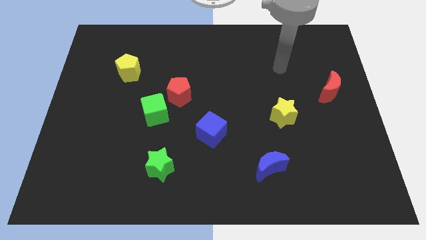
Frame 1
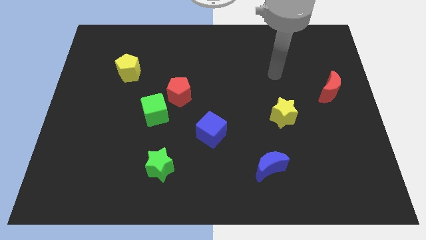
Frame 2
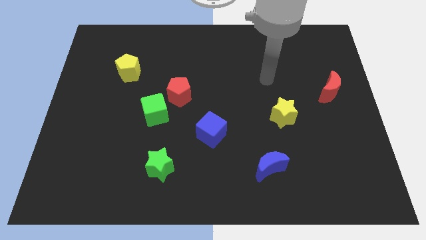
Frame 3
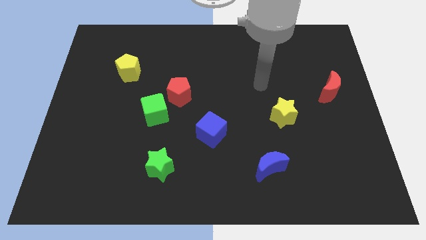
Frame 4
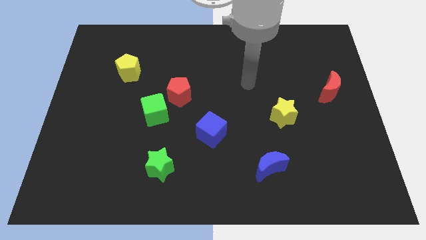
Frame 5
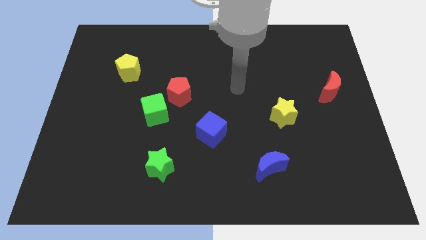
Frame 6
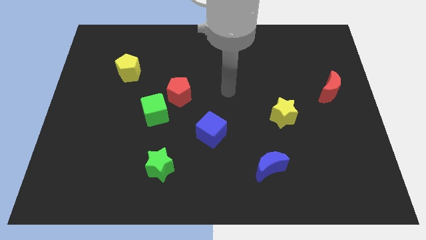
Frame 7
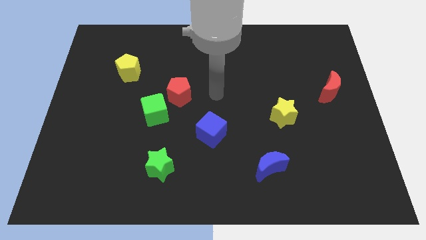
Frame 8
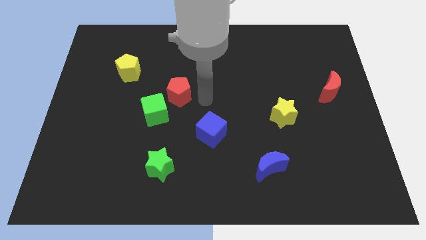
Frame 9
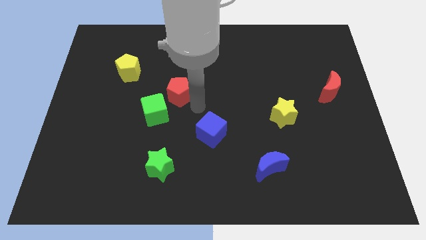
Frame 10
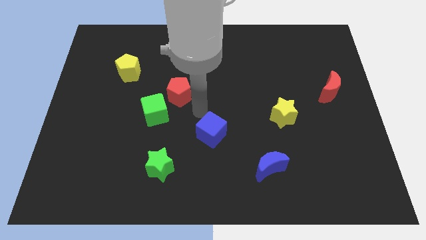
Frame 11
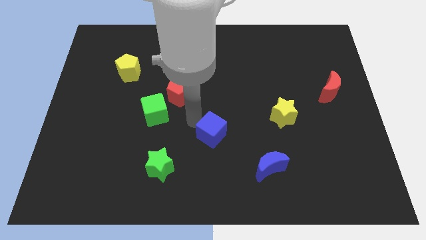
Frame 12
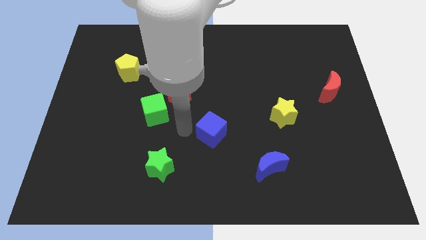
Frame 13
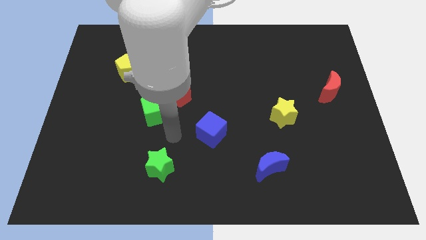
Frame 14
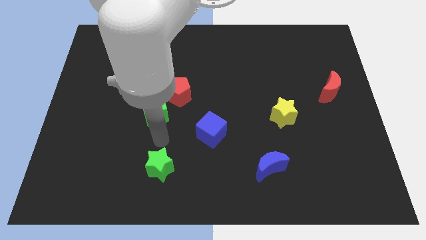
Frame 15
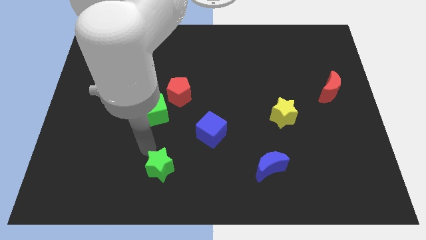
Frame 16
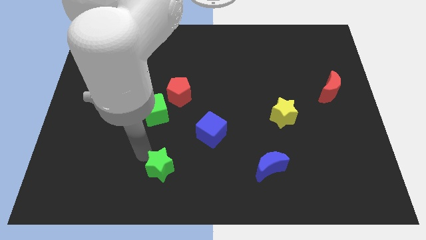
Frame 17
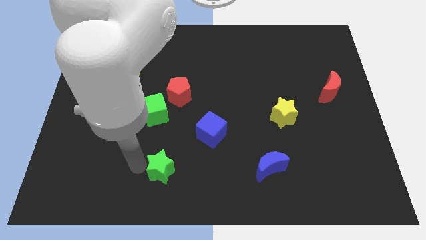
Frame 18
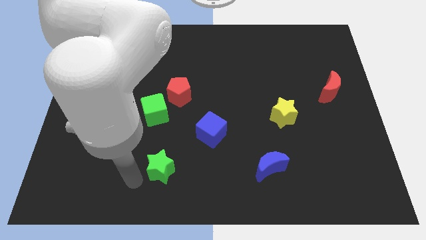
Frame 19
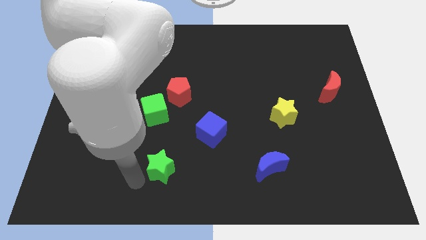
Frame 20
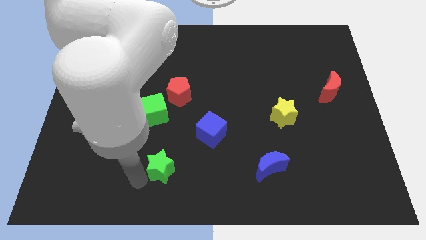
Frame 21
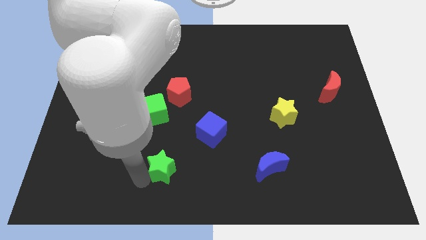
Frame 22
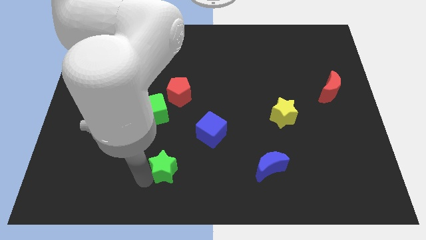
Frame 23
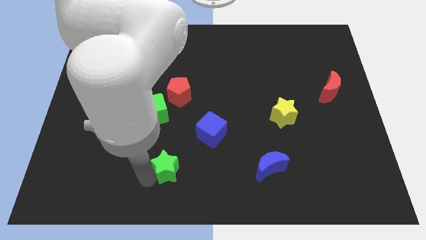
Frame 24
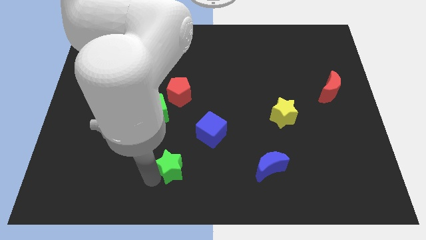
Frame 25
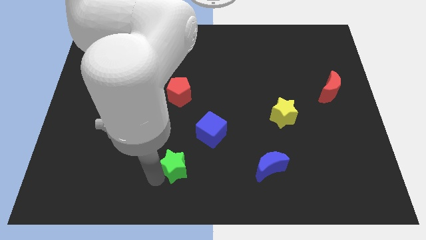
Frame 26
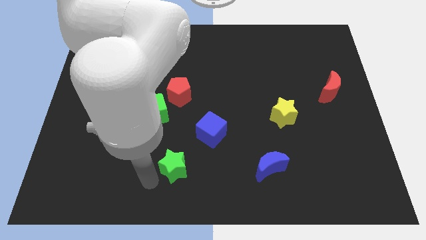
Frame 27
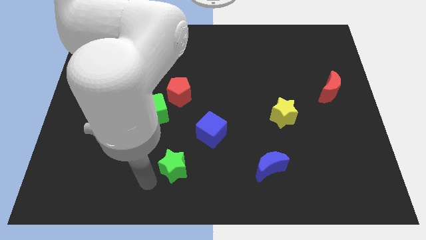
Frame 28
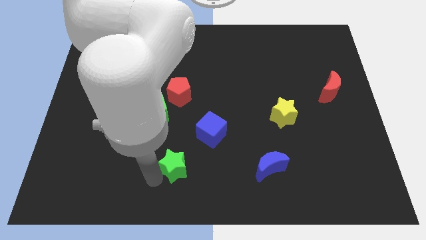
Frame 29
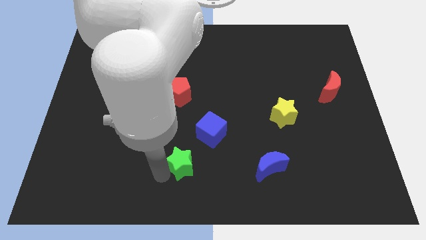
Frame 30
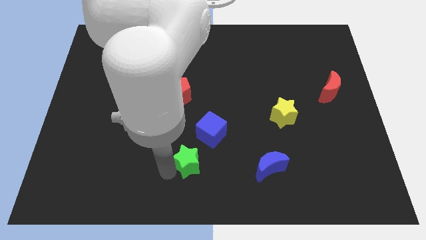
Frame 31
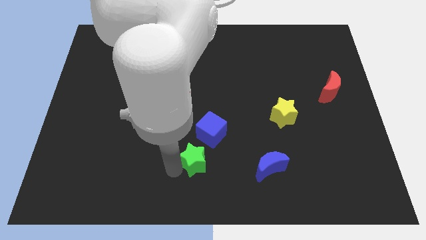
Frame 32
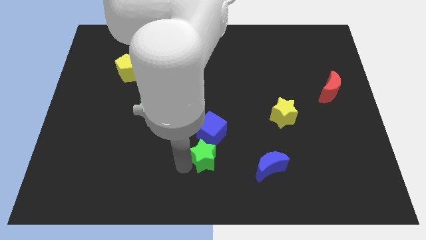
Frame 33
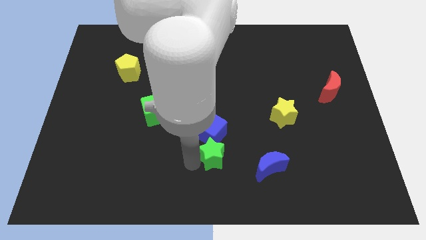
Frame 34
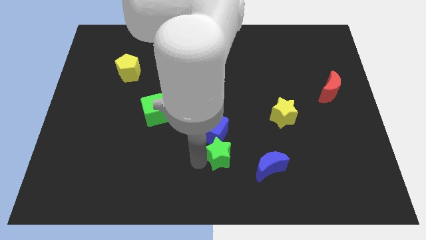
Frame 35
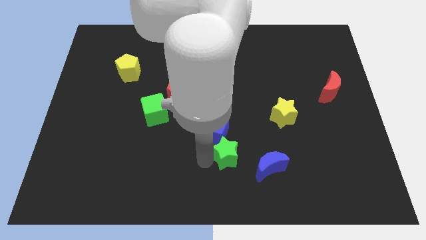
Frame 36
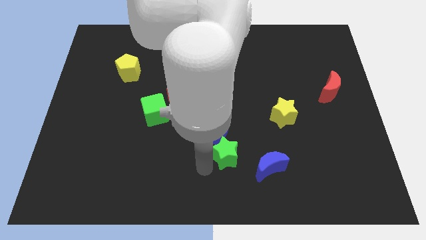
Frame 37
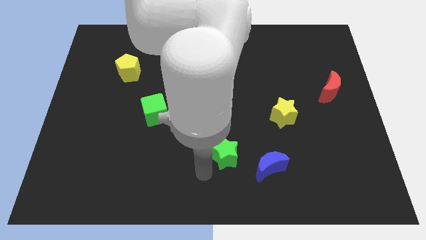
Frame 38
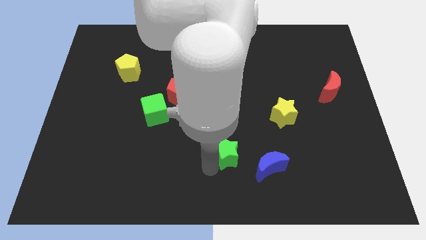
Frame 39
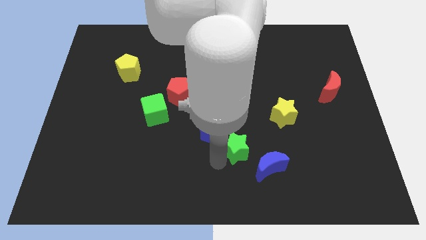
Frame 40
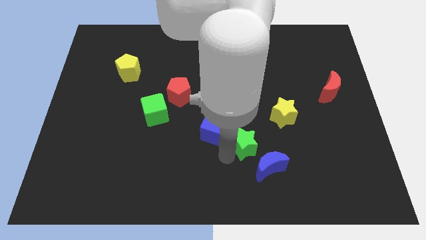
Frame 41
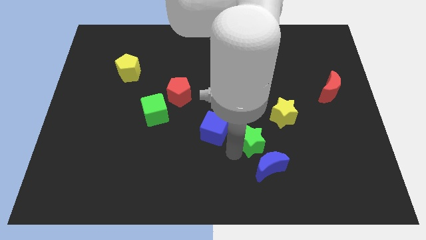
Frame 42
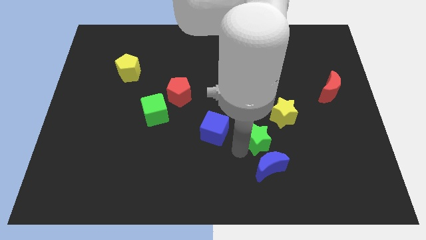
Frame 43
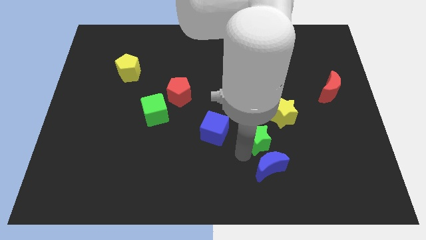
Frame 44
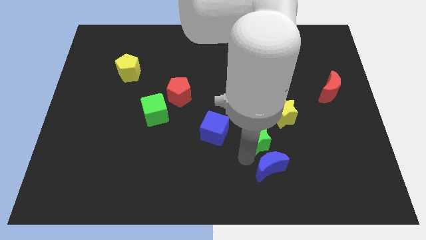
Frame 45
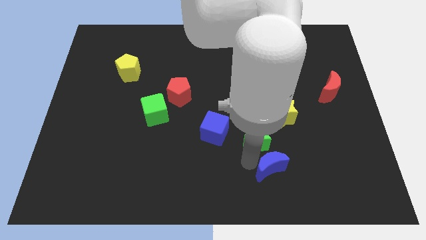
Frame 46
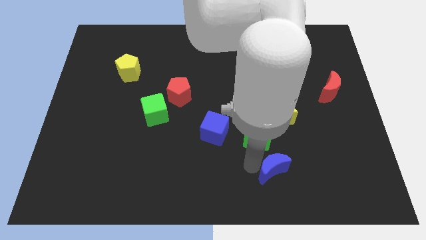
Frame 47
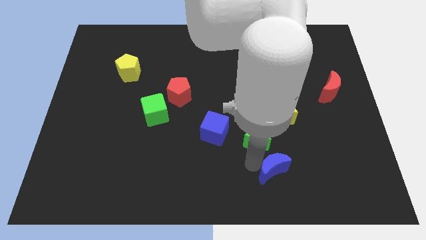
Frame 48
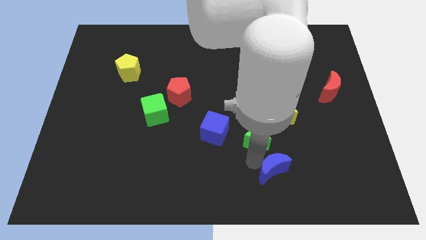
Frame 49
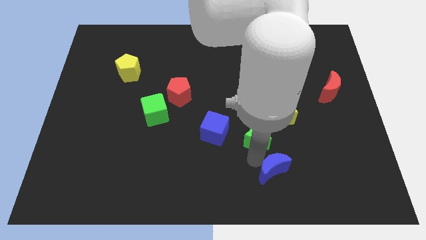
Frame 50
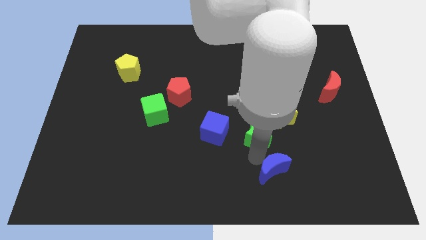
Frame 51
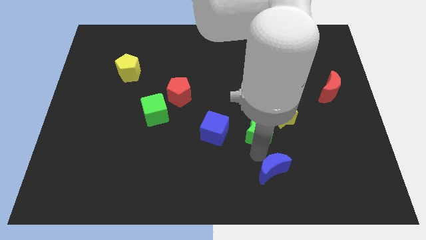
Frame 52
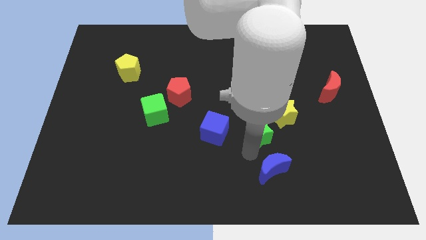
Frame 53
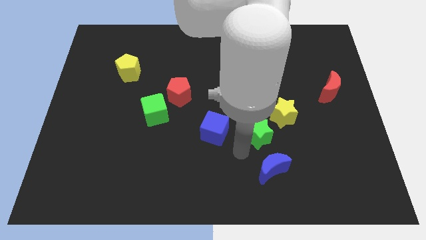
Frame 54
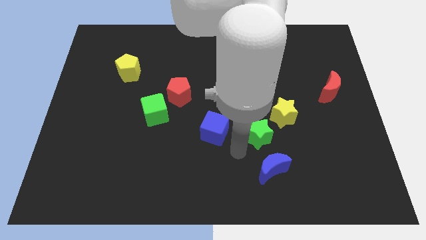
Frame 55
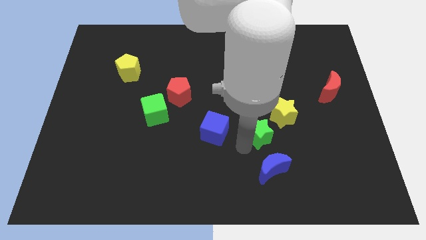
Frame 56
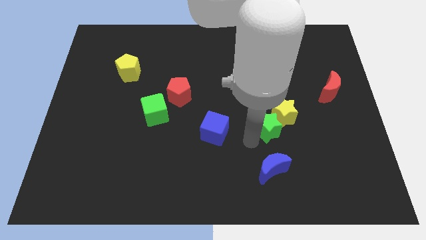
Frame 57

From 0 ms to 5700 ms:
push the green star next to the yellow star

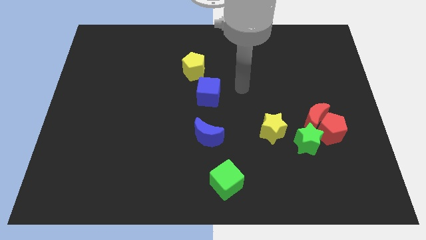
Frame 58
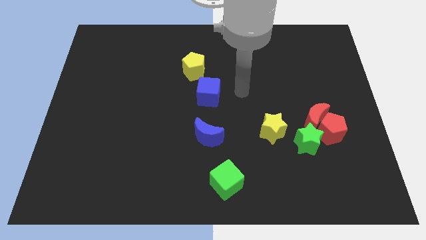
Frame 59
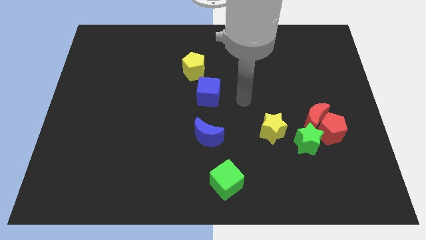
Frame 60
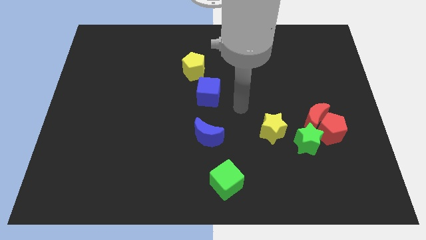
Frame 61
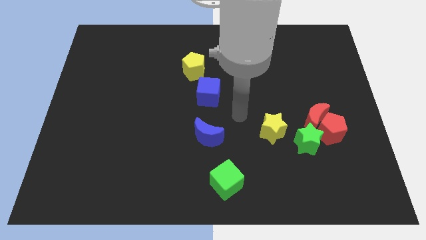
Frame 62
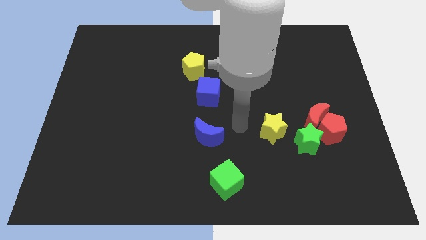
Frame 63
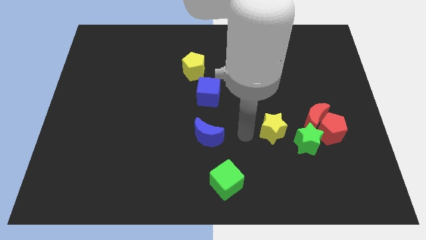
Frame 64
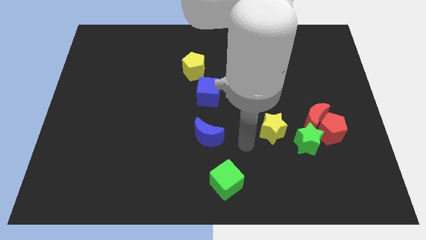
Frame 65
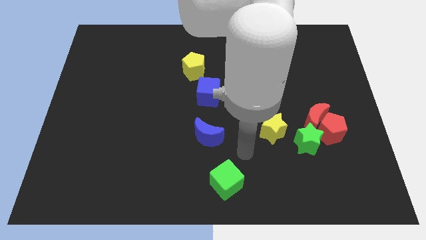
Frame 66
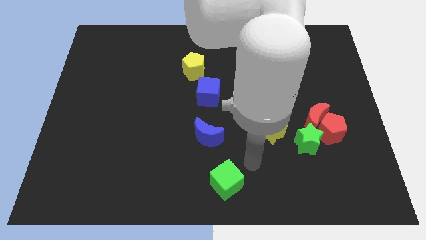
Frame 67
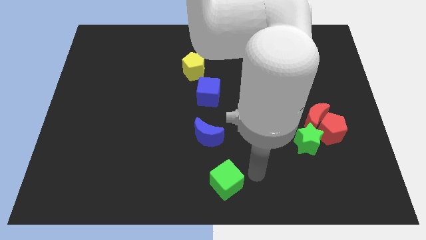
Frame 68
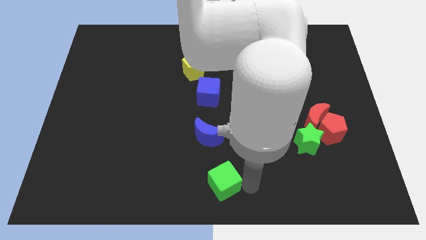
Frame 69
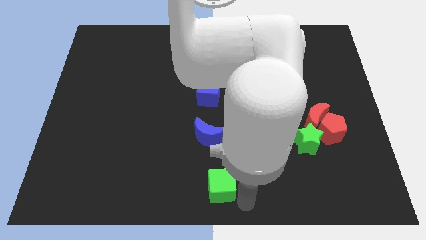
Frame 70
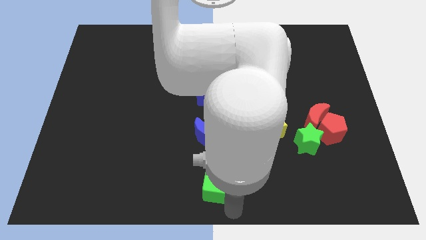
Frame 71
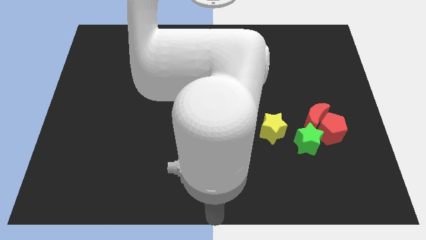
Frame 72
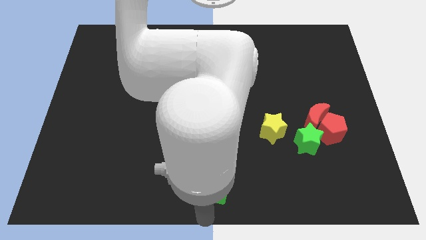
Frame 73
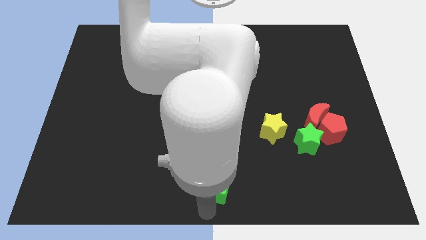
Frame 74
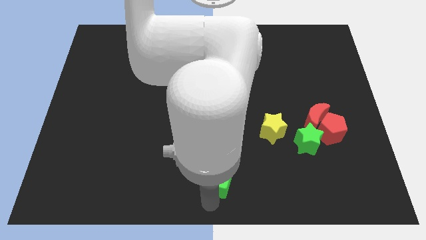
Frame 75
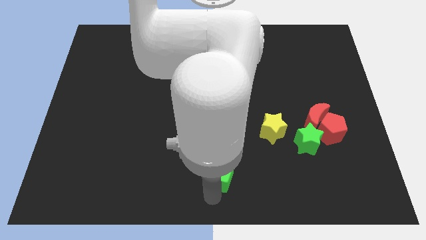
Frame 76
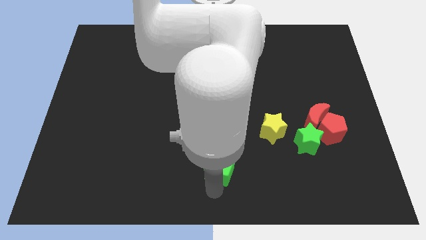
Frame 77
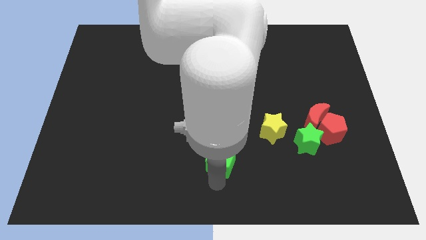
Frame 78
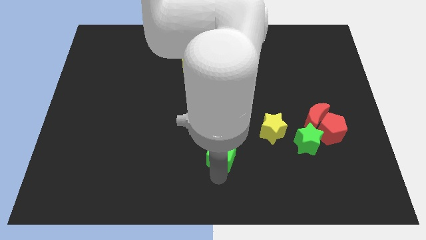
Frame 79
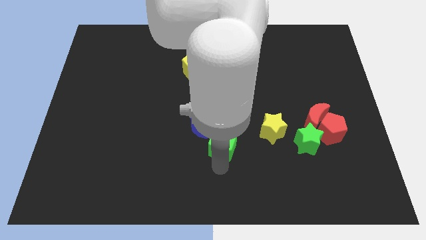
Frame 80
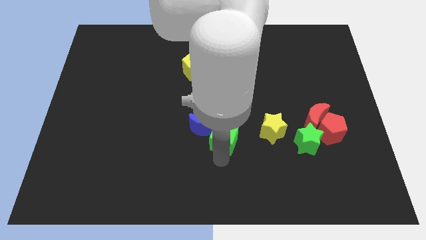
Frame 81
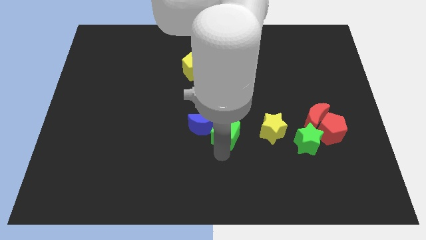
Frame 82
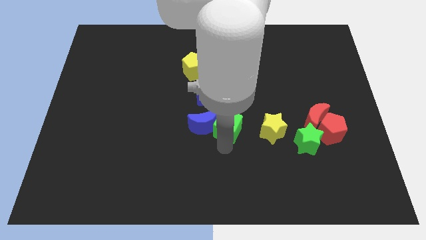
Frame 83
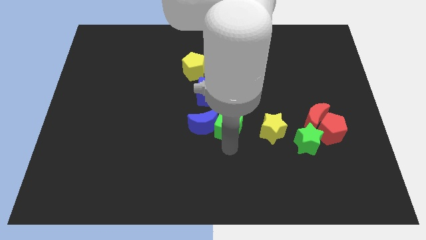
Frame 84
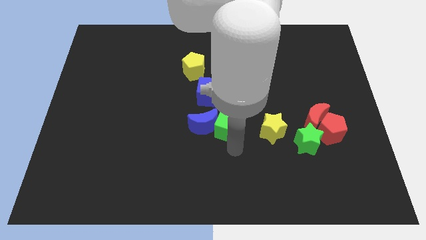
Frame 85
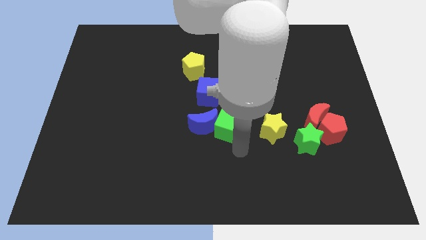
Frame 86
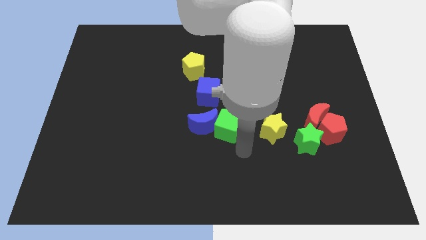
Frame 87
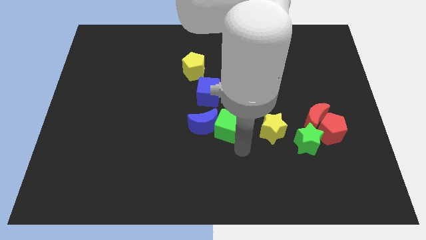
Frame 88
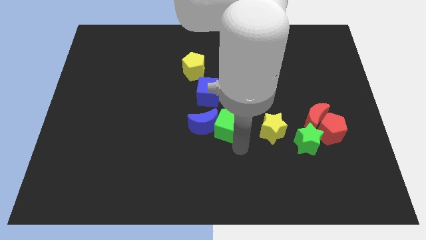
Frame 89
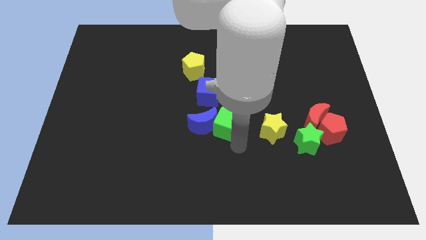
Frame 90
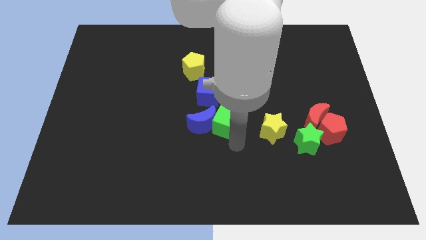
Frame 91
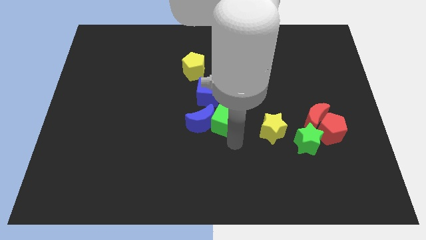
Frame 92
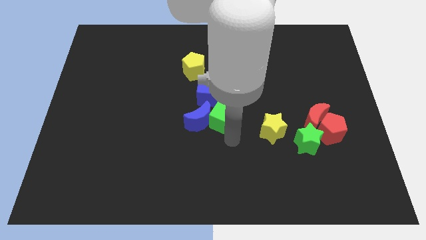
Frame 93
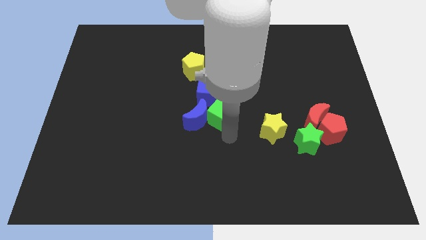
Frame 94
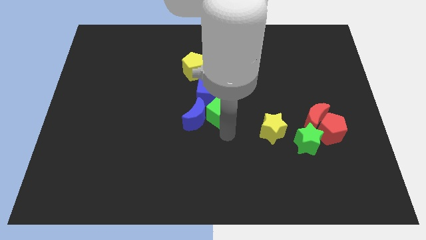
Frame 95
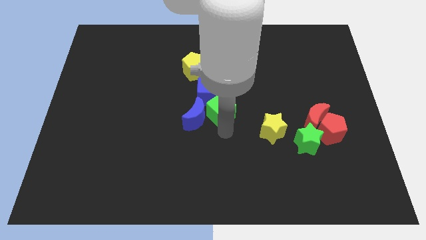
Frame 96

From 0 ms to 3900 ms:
slide the green cube to the blue cube
